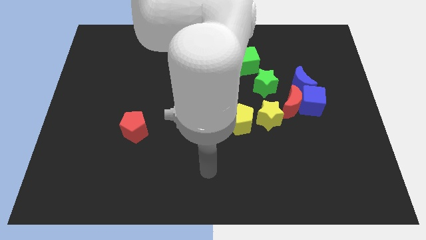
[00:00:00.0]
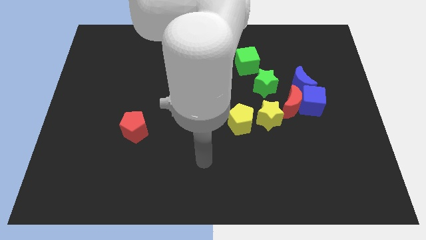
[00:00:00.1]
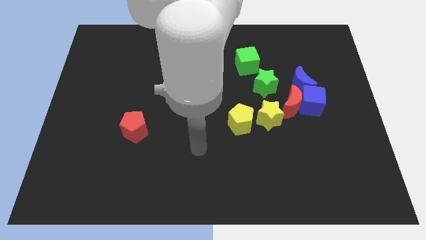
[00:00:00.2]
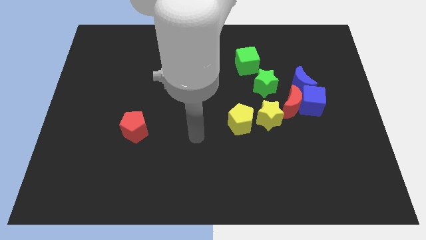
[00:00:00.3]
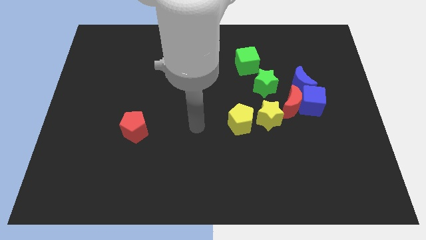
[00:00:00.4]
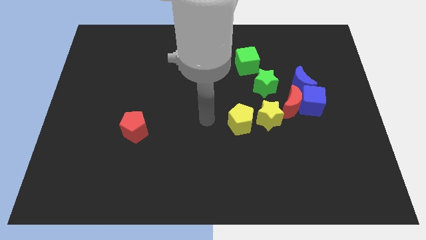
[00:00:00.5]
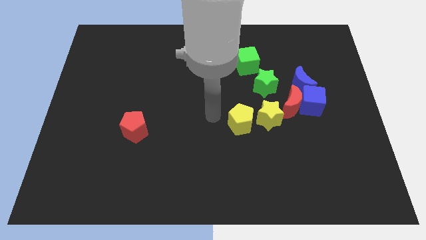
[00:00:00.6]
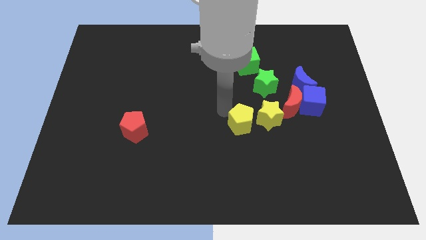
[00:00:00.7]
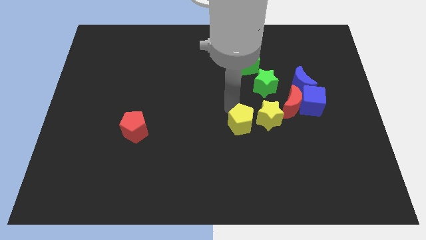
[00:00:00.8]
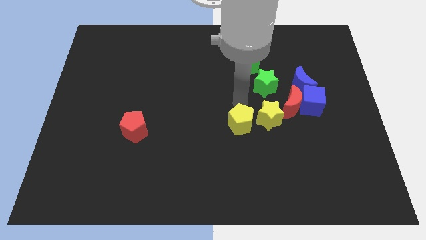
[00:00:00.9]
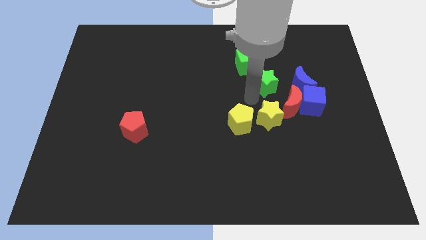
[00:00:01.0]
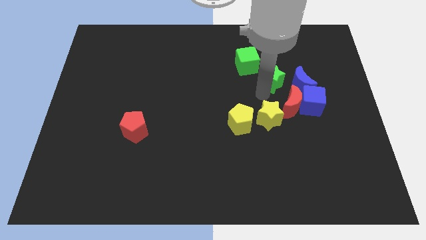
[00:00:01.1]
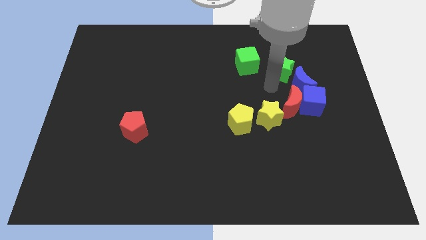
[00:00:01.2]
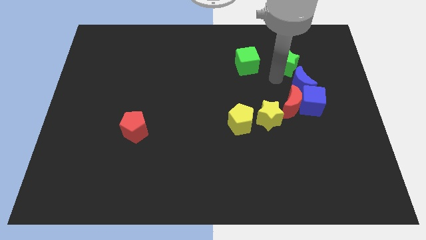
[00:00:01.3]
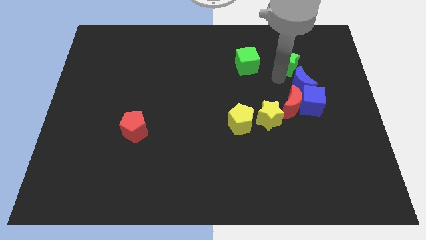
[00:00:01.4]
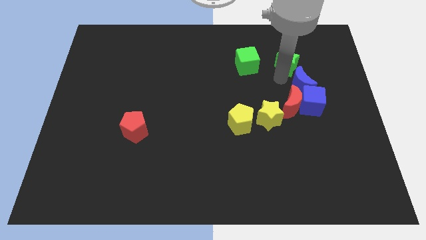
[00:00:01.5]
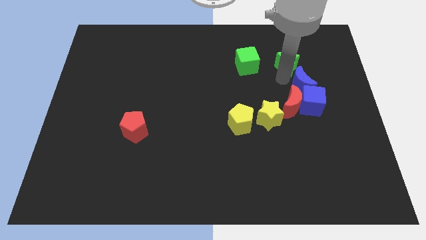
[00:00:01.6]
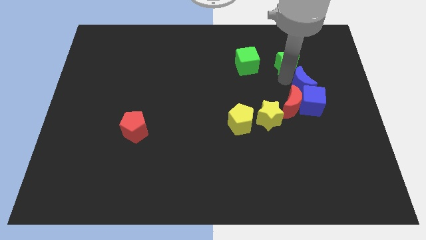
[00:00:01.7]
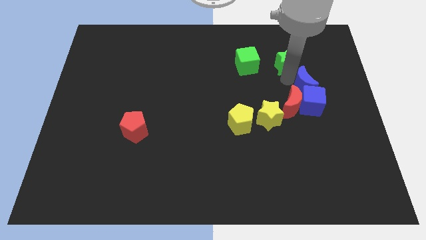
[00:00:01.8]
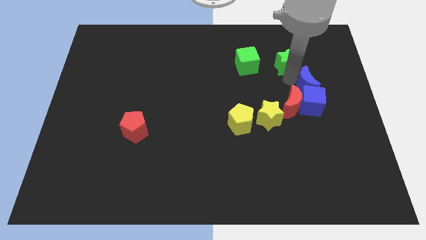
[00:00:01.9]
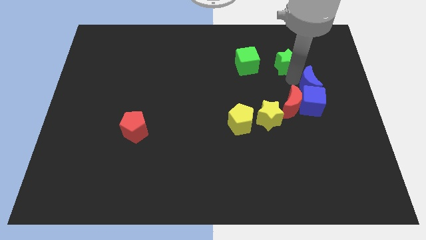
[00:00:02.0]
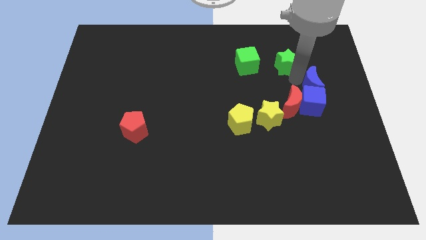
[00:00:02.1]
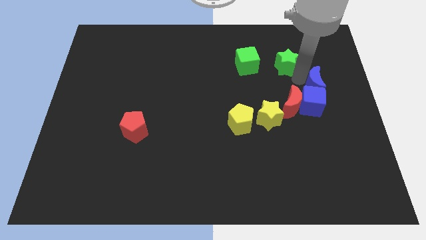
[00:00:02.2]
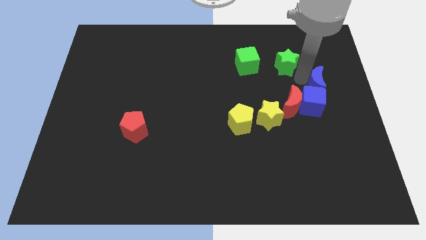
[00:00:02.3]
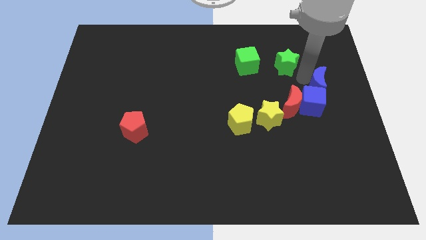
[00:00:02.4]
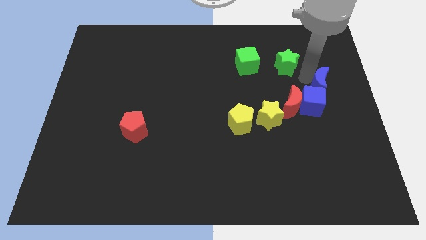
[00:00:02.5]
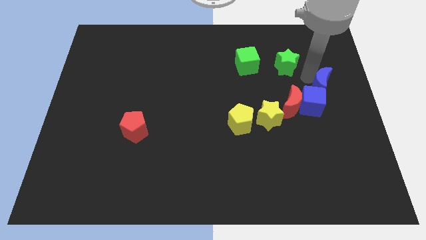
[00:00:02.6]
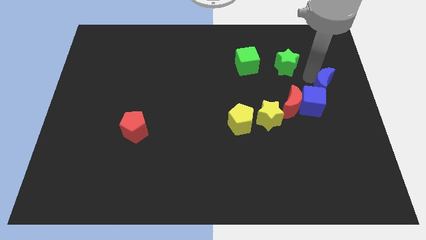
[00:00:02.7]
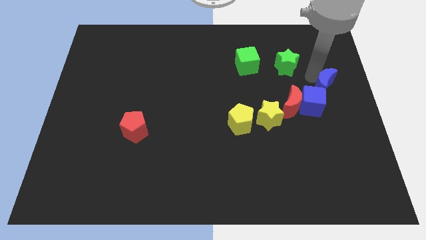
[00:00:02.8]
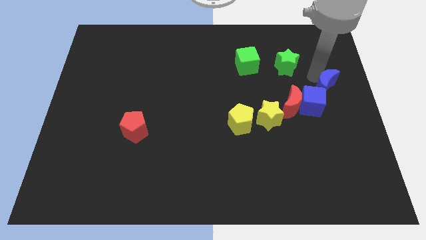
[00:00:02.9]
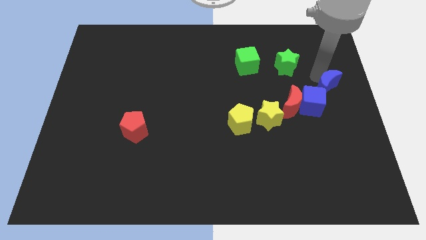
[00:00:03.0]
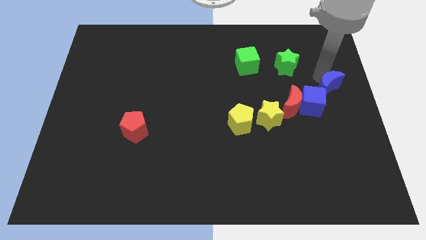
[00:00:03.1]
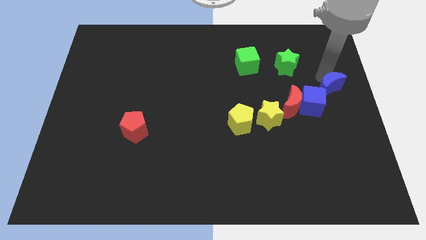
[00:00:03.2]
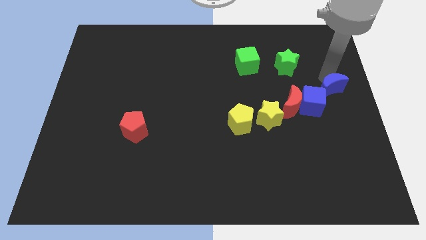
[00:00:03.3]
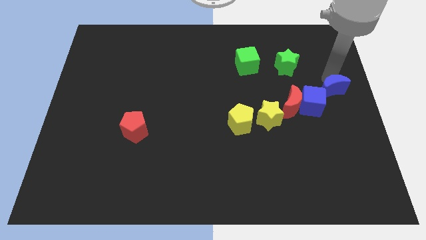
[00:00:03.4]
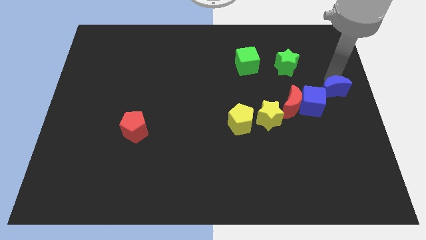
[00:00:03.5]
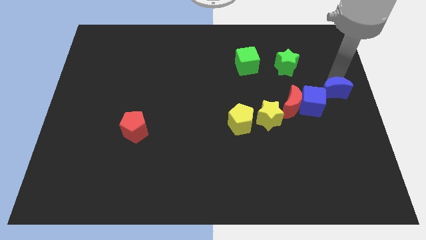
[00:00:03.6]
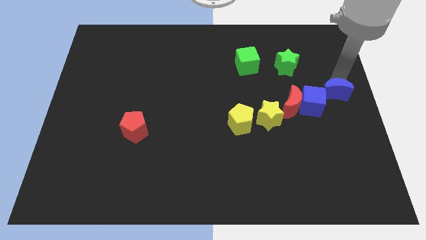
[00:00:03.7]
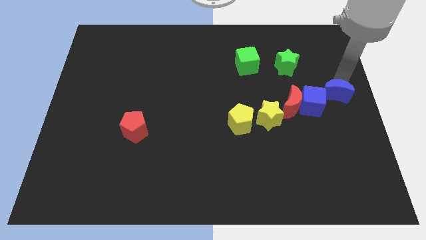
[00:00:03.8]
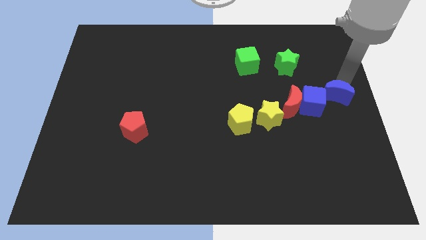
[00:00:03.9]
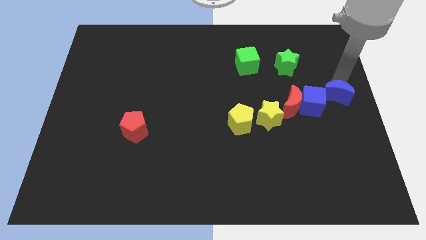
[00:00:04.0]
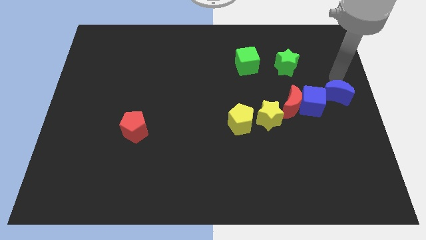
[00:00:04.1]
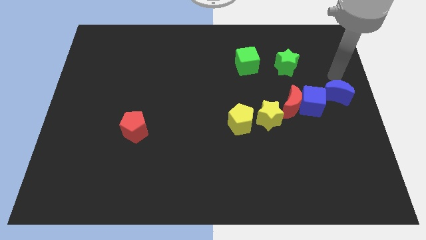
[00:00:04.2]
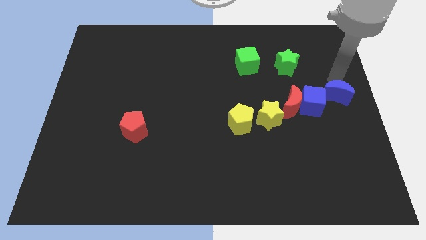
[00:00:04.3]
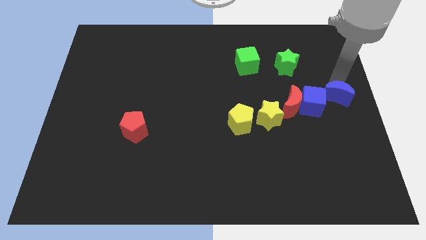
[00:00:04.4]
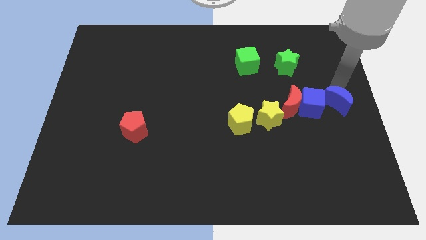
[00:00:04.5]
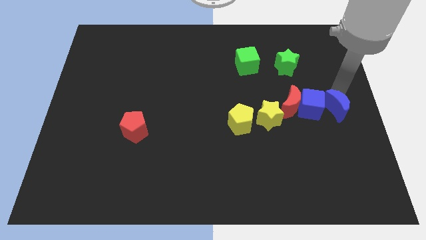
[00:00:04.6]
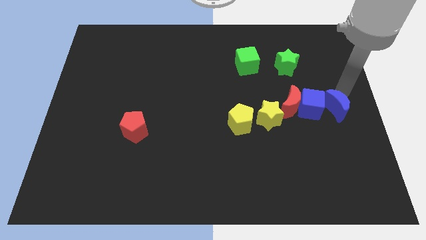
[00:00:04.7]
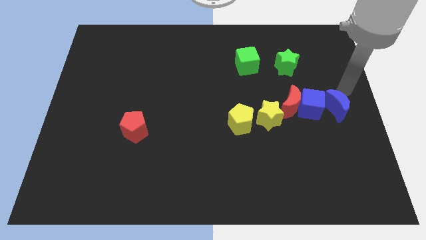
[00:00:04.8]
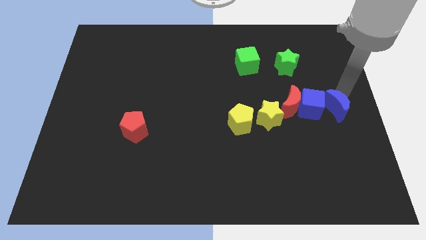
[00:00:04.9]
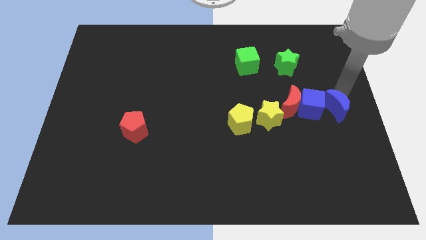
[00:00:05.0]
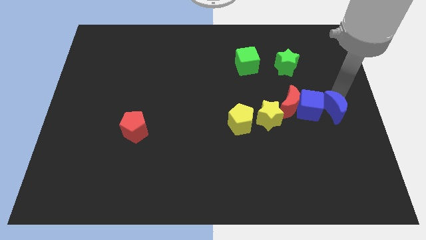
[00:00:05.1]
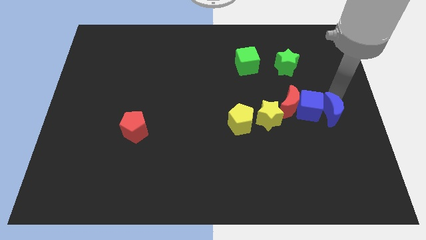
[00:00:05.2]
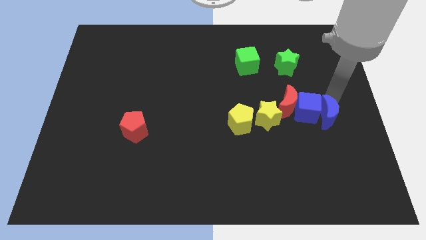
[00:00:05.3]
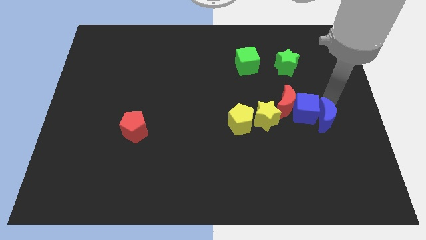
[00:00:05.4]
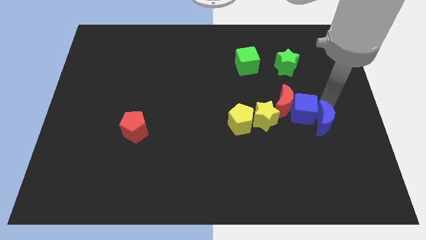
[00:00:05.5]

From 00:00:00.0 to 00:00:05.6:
push the blue moon below the blue cube

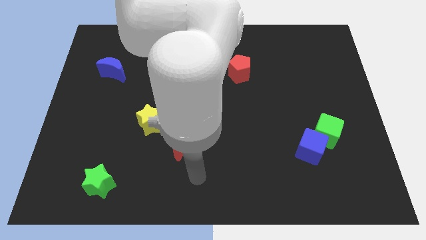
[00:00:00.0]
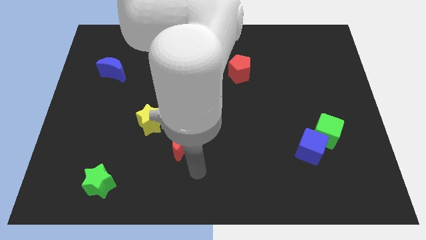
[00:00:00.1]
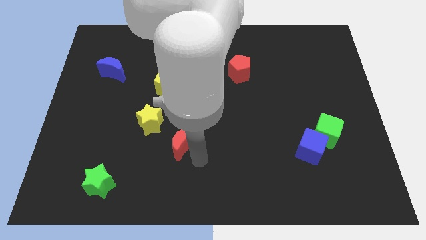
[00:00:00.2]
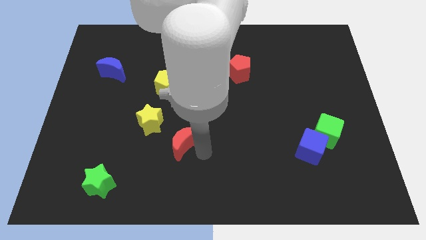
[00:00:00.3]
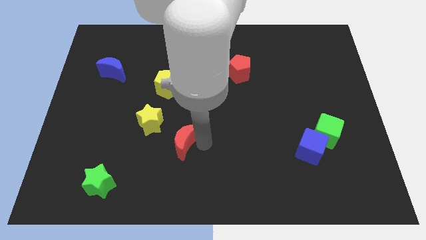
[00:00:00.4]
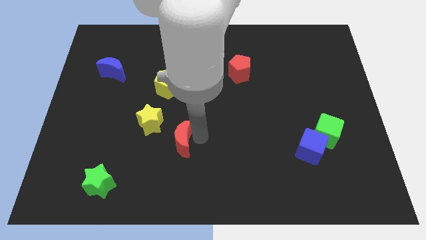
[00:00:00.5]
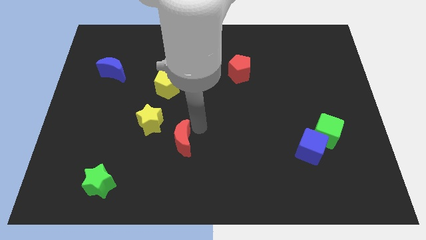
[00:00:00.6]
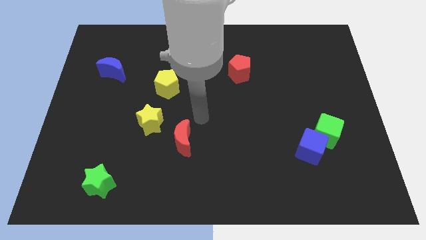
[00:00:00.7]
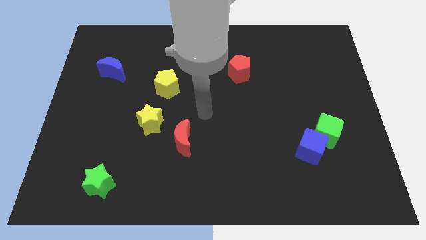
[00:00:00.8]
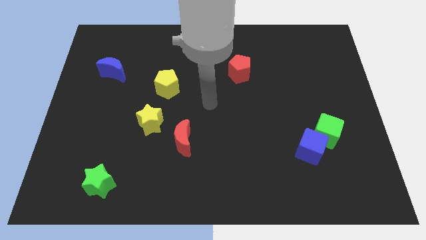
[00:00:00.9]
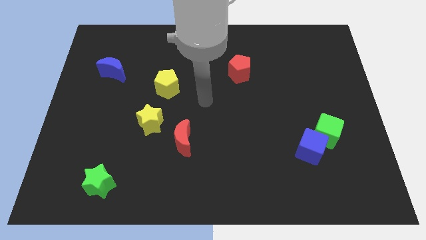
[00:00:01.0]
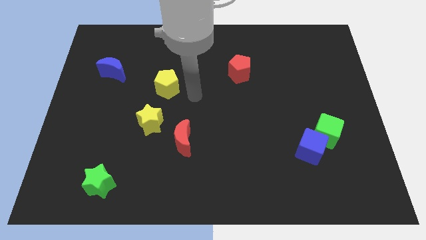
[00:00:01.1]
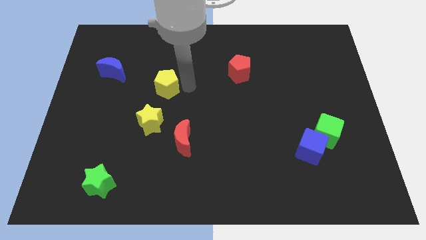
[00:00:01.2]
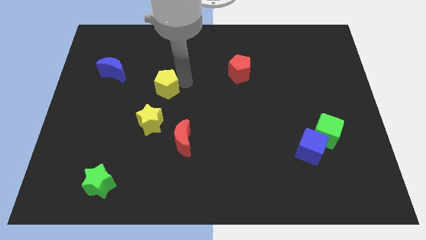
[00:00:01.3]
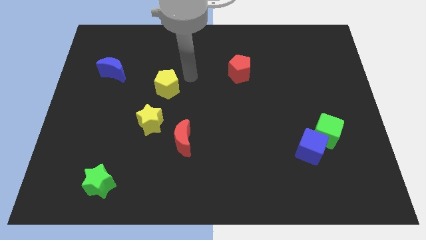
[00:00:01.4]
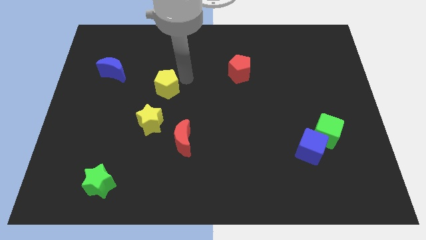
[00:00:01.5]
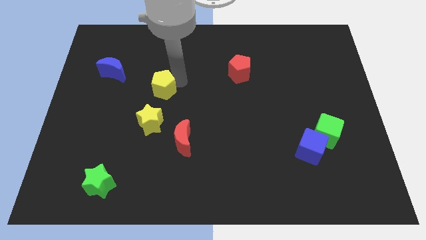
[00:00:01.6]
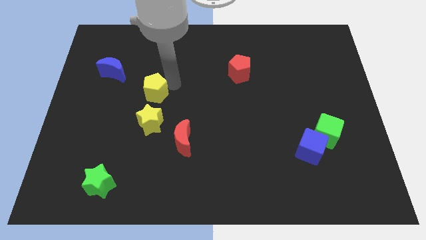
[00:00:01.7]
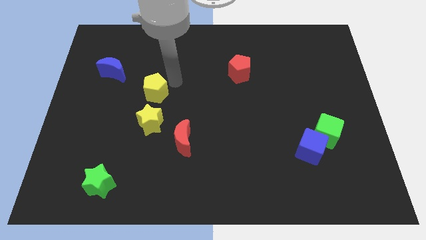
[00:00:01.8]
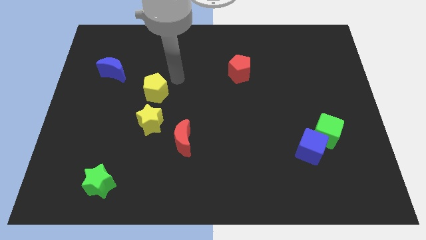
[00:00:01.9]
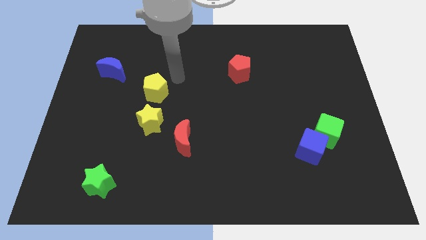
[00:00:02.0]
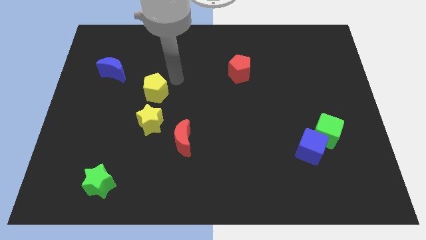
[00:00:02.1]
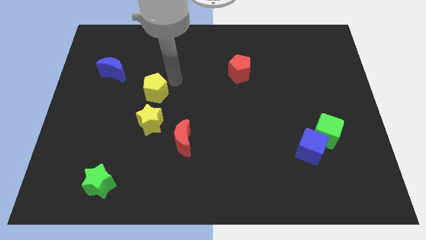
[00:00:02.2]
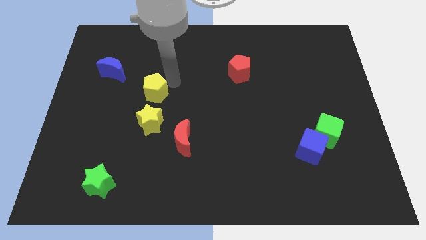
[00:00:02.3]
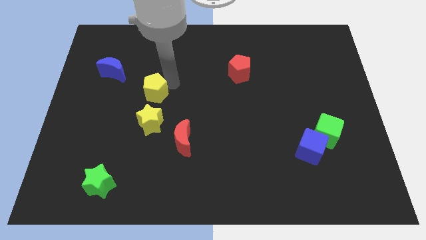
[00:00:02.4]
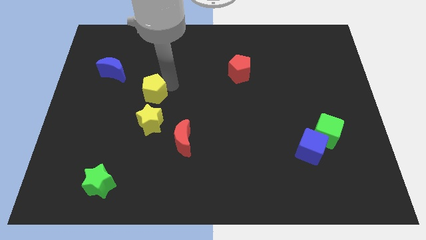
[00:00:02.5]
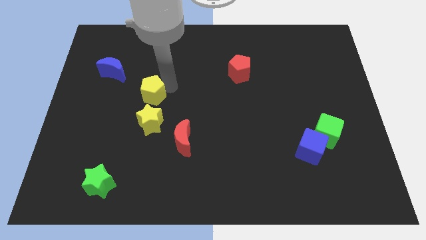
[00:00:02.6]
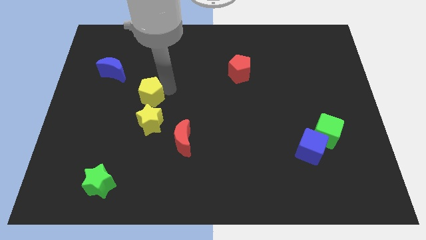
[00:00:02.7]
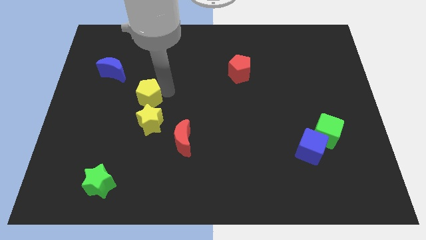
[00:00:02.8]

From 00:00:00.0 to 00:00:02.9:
put the yellow pentagon to the top left of the yellow star
